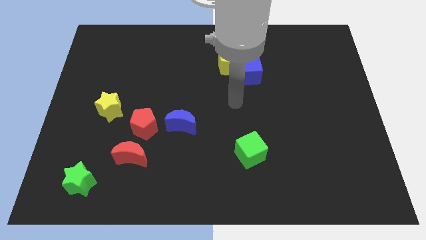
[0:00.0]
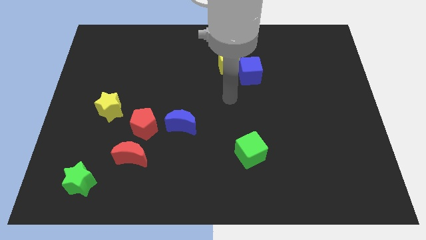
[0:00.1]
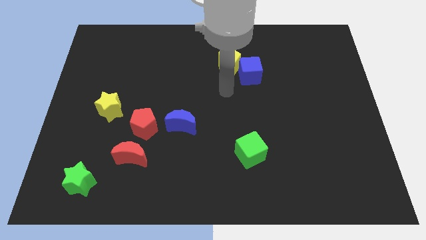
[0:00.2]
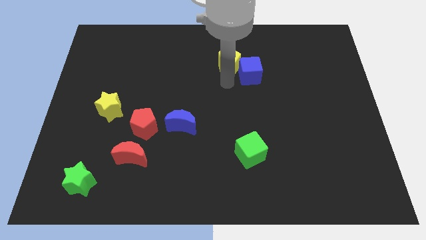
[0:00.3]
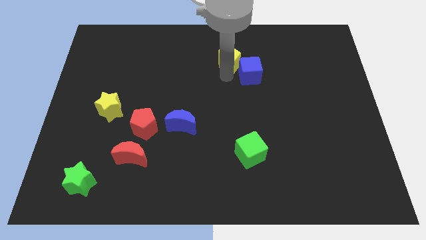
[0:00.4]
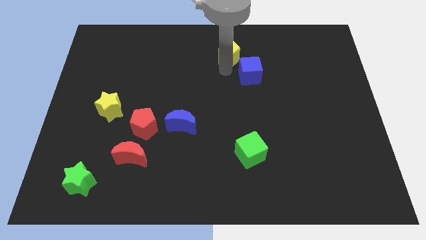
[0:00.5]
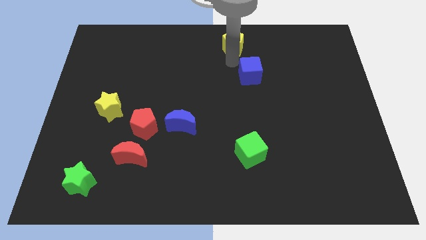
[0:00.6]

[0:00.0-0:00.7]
pull the blue cube apart from the yellow pentagon

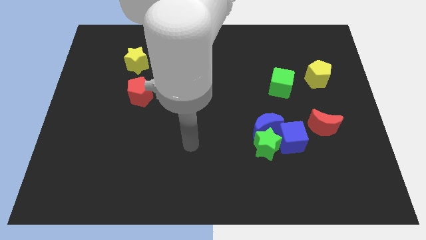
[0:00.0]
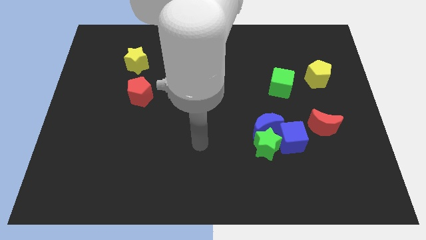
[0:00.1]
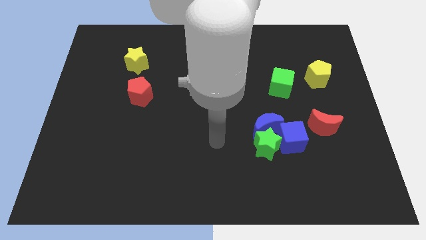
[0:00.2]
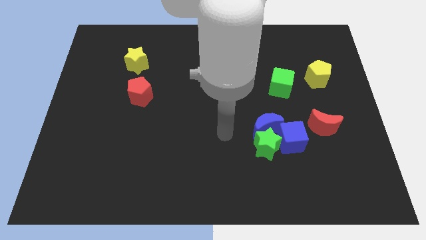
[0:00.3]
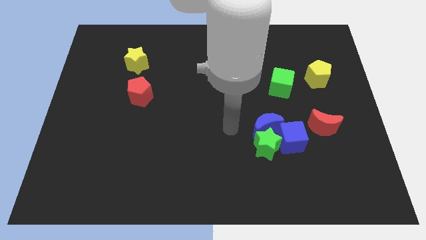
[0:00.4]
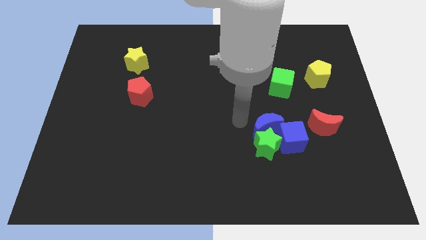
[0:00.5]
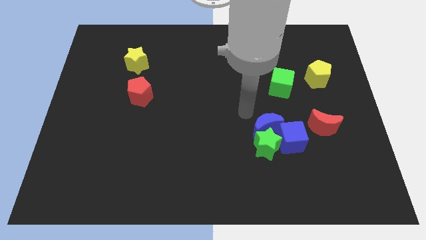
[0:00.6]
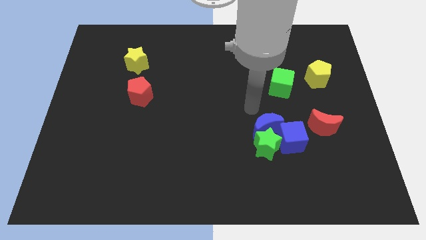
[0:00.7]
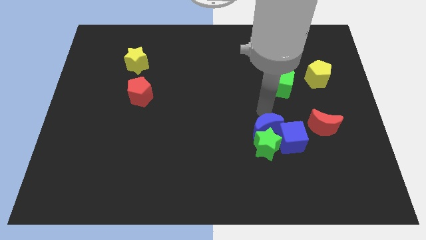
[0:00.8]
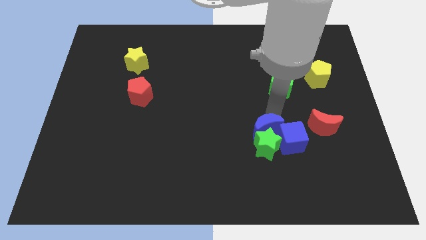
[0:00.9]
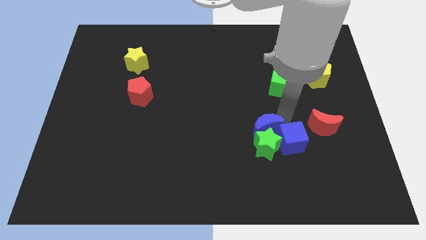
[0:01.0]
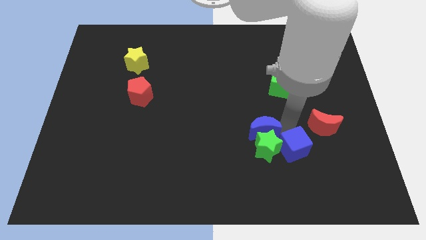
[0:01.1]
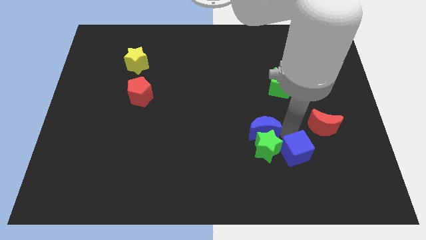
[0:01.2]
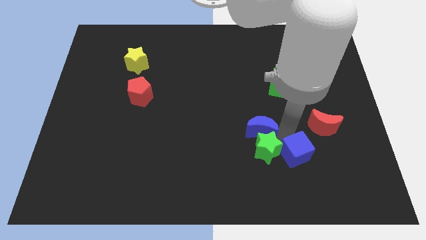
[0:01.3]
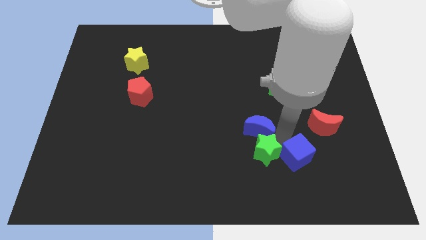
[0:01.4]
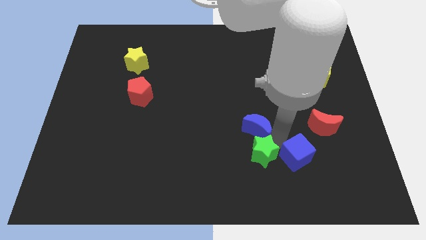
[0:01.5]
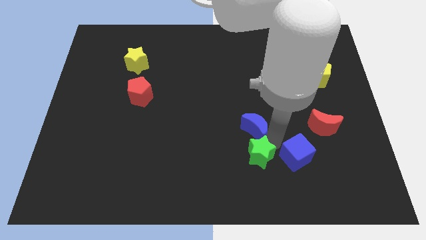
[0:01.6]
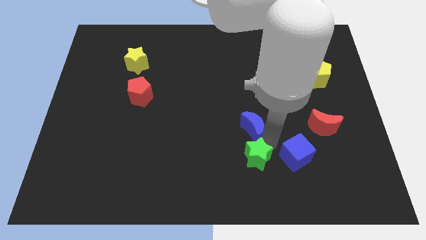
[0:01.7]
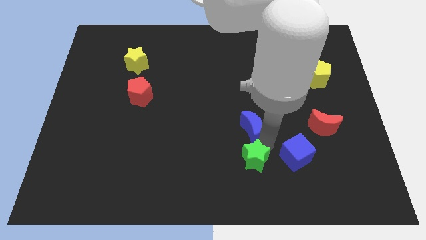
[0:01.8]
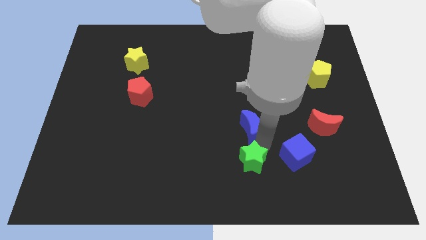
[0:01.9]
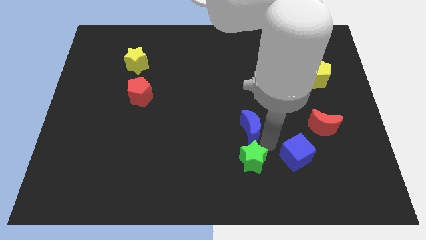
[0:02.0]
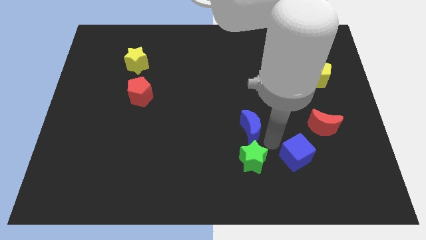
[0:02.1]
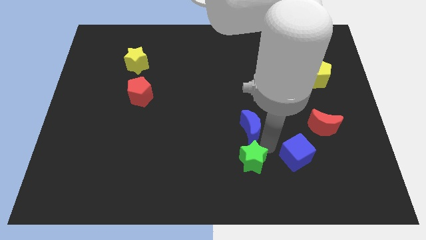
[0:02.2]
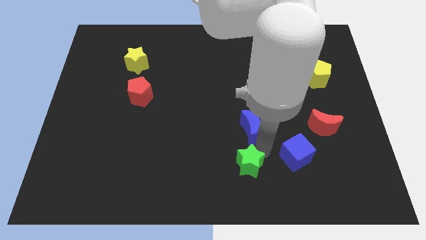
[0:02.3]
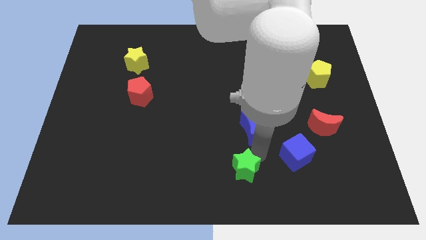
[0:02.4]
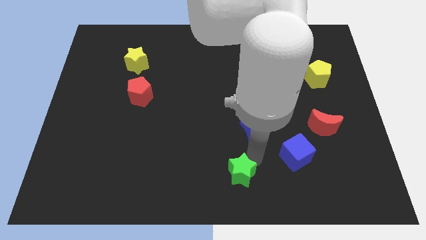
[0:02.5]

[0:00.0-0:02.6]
separate the green star from the blue moon and blue cube

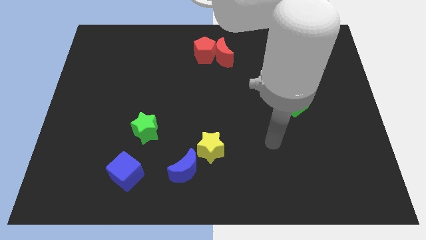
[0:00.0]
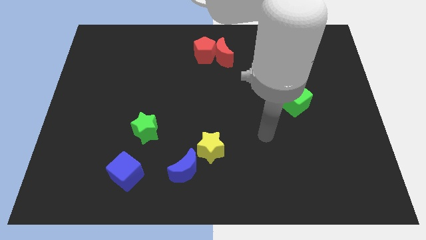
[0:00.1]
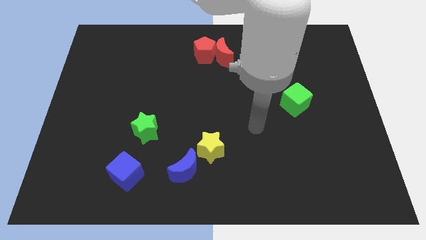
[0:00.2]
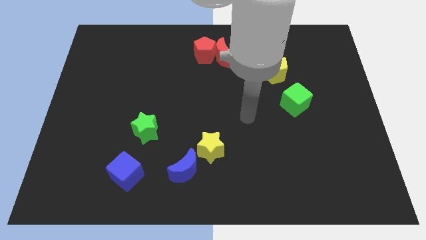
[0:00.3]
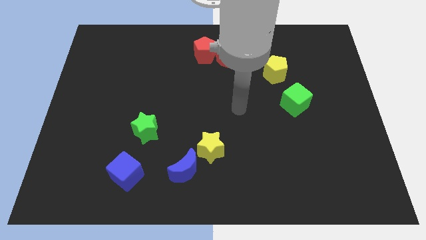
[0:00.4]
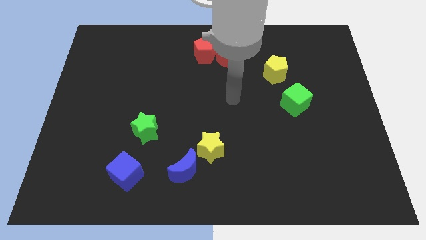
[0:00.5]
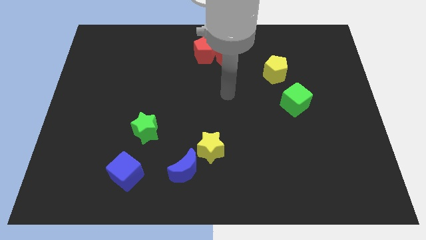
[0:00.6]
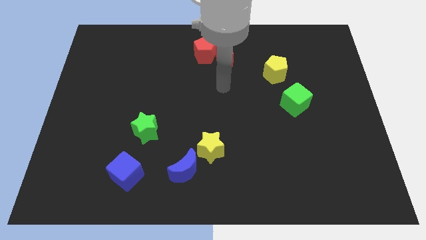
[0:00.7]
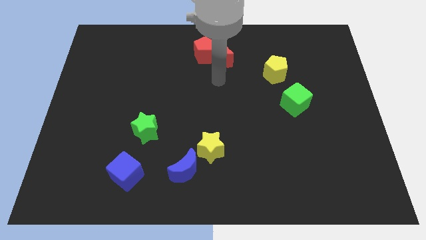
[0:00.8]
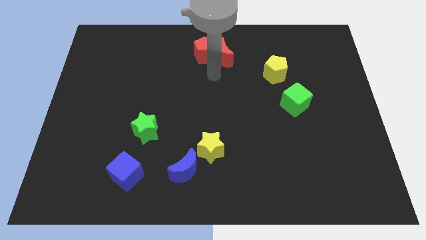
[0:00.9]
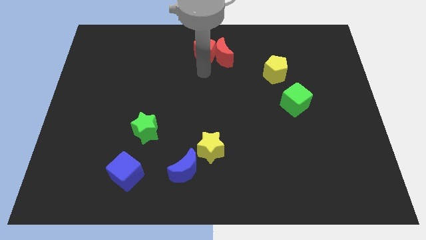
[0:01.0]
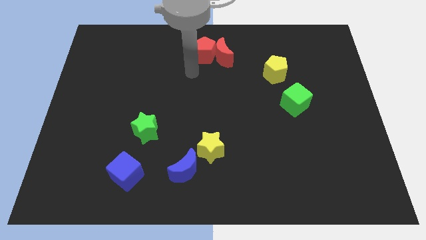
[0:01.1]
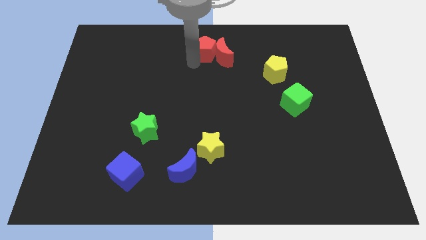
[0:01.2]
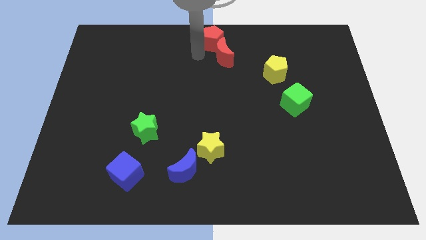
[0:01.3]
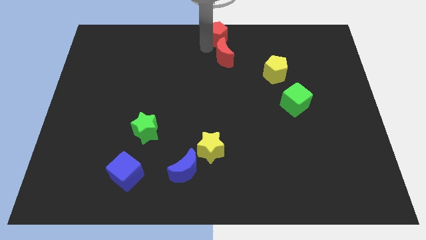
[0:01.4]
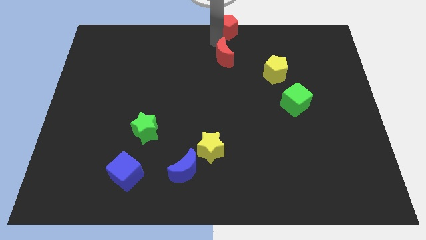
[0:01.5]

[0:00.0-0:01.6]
separate the red moon from the red pentagon

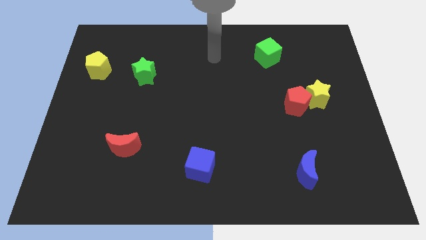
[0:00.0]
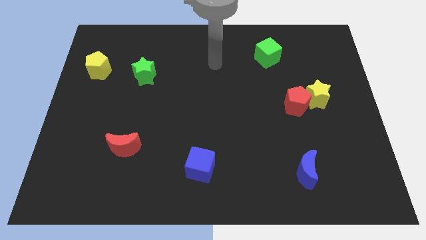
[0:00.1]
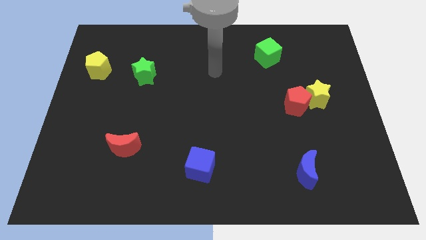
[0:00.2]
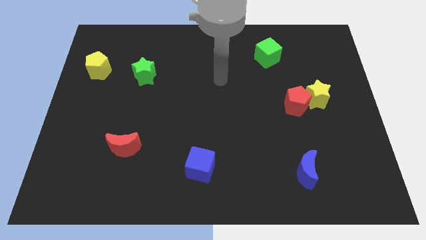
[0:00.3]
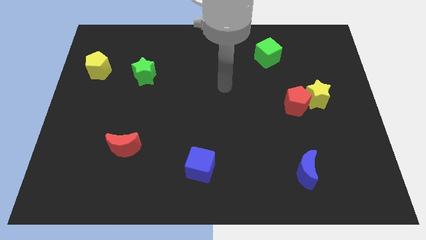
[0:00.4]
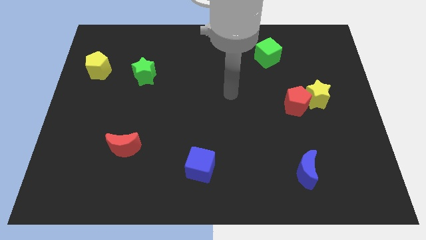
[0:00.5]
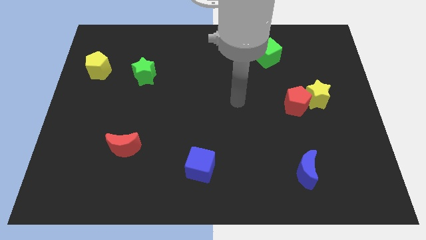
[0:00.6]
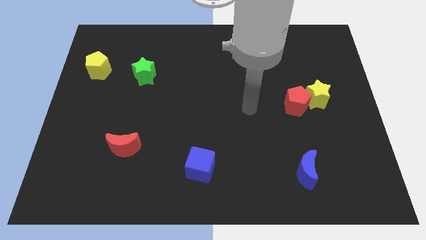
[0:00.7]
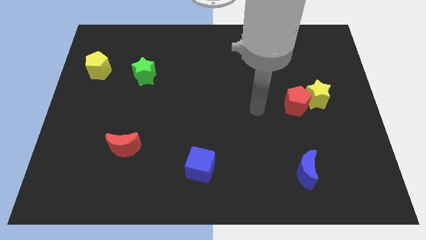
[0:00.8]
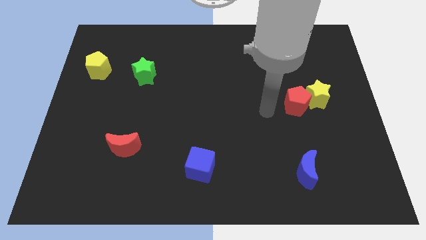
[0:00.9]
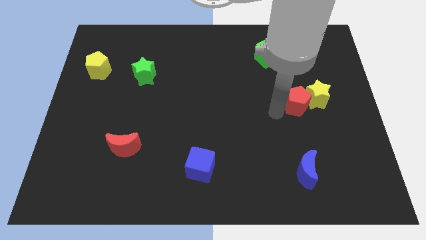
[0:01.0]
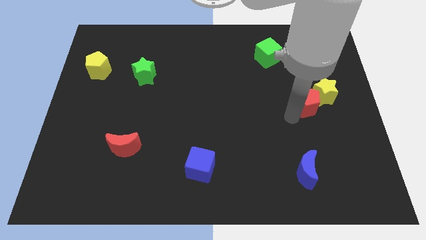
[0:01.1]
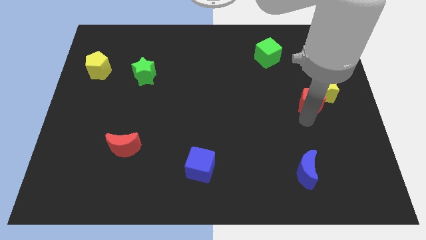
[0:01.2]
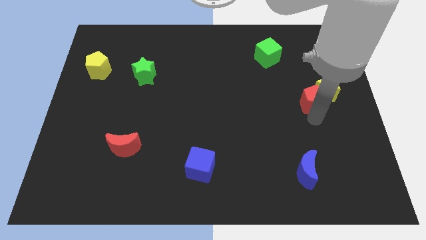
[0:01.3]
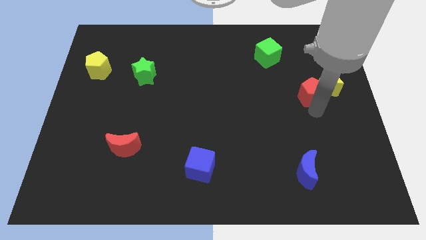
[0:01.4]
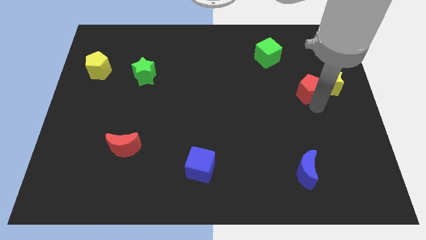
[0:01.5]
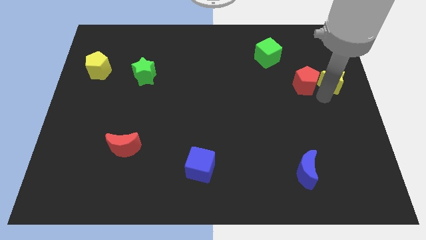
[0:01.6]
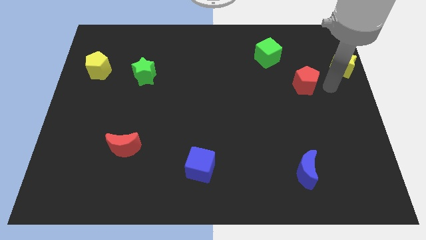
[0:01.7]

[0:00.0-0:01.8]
separate the red pentagon from the yellow star

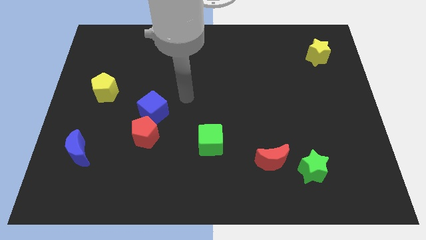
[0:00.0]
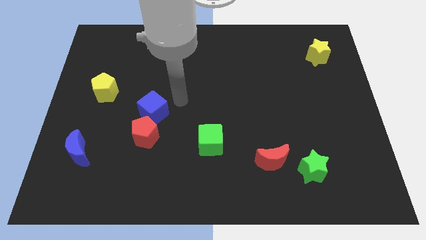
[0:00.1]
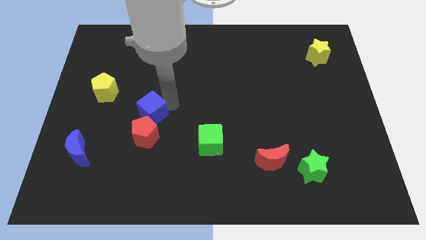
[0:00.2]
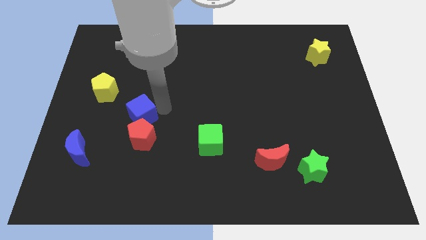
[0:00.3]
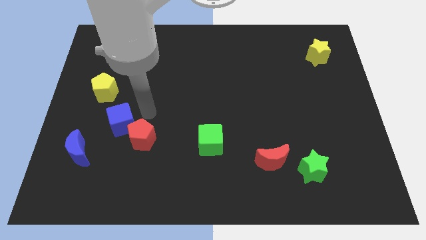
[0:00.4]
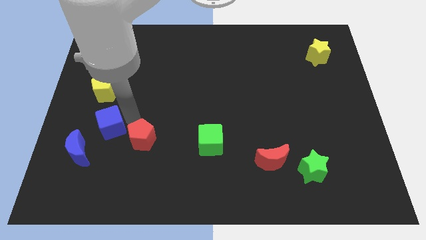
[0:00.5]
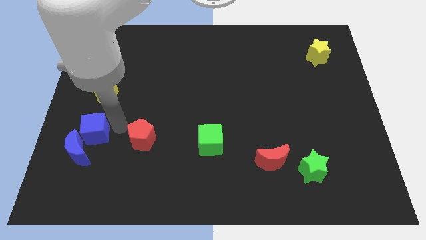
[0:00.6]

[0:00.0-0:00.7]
pull the red pentagon apart from the blue cube

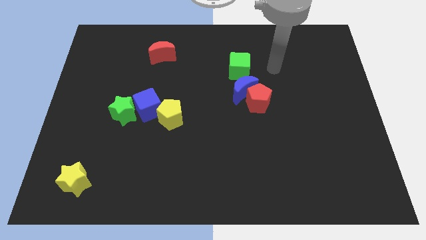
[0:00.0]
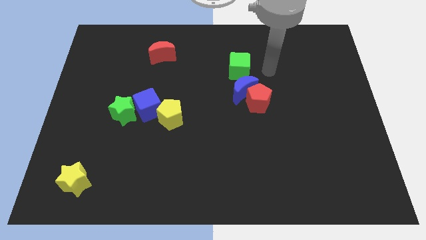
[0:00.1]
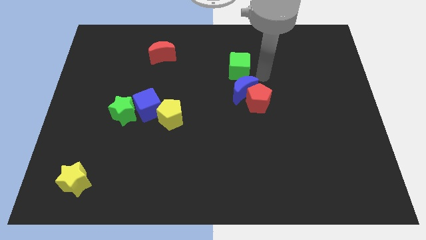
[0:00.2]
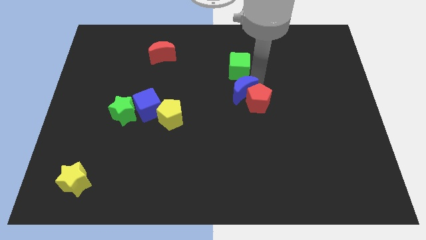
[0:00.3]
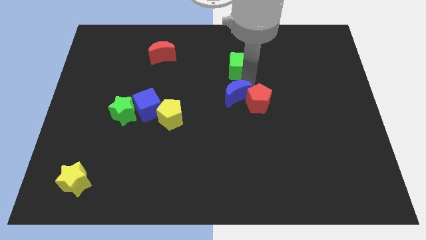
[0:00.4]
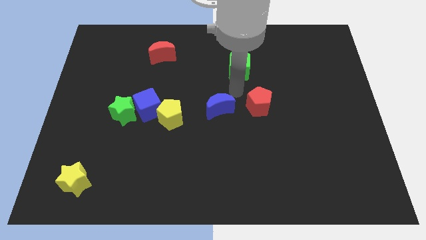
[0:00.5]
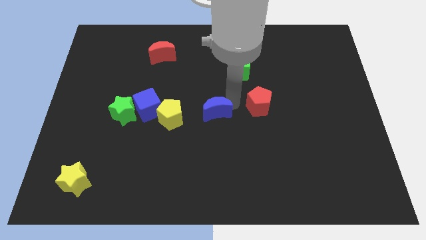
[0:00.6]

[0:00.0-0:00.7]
move the red pentagon away from the blue moon

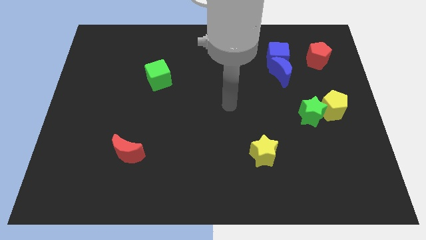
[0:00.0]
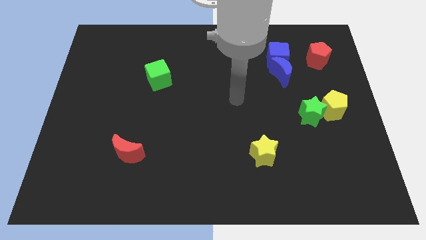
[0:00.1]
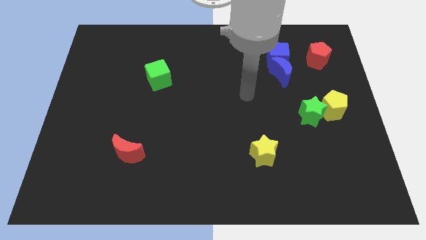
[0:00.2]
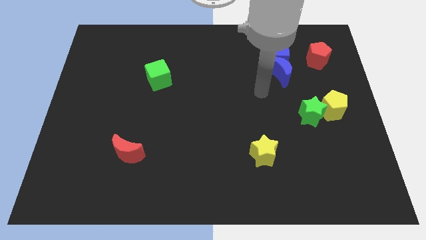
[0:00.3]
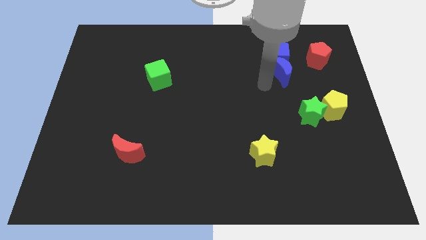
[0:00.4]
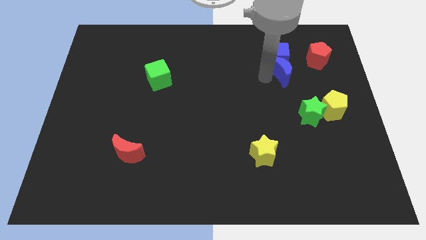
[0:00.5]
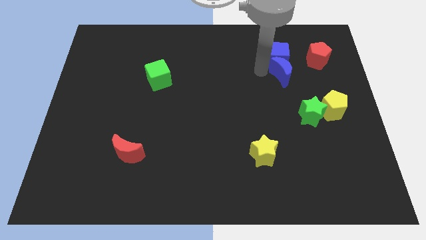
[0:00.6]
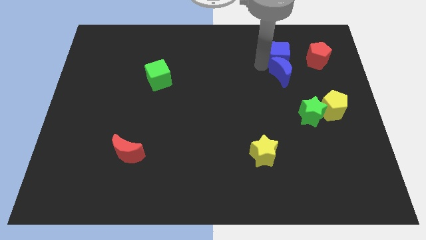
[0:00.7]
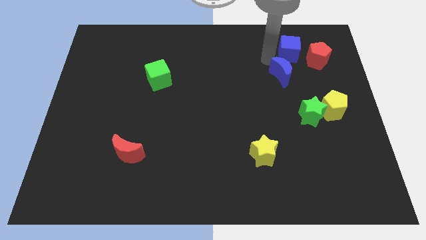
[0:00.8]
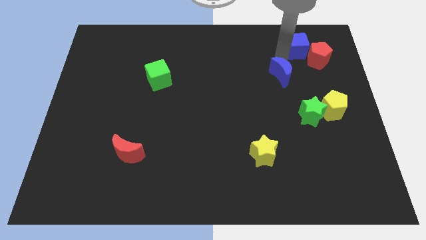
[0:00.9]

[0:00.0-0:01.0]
separate the blue moon from the blue cube

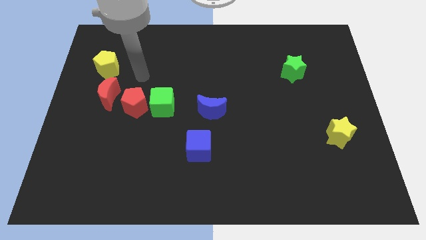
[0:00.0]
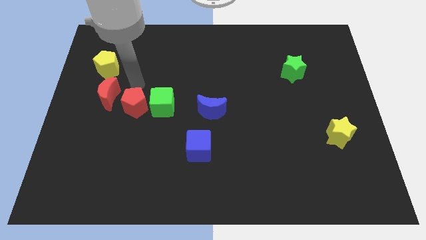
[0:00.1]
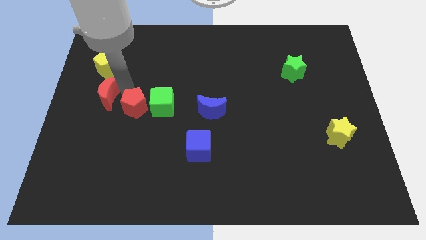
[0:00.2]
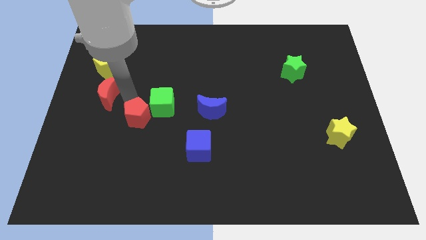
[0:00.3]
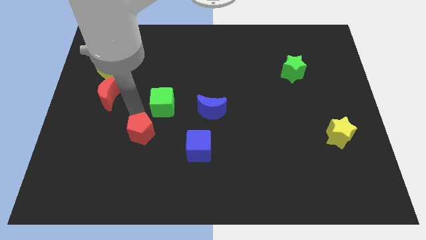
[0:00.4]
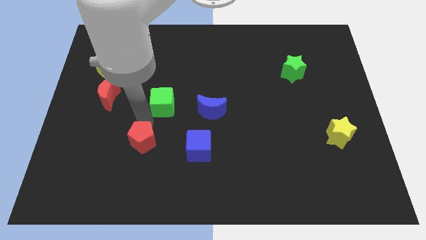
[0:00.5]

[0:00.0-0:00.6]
separate the green cube from the red pentagon
